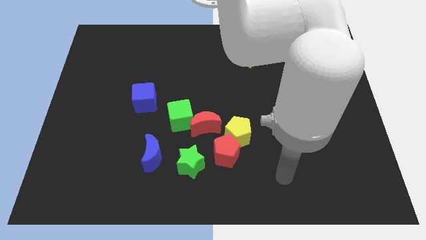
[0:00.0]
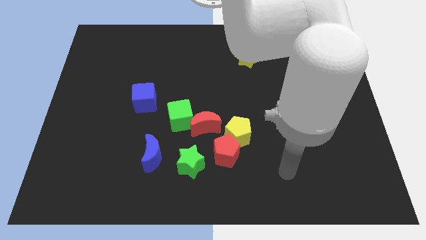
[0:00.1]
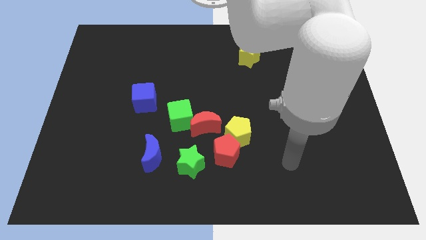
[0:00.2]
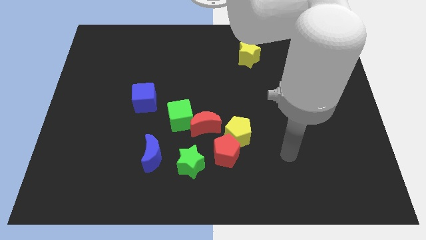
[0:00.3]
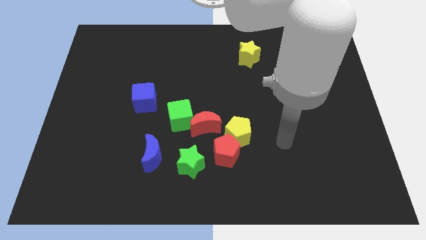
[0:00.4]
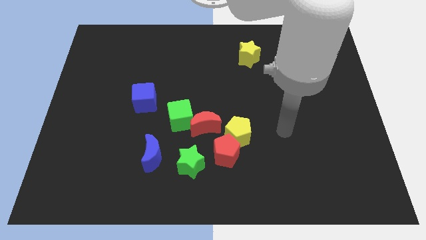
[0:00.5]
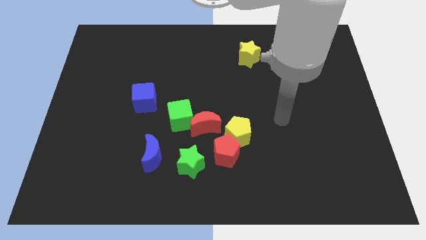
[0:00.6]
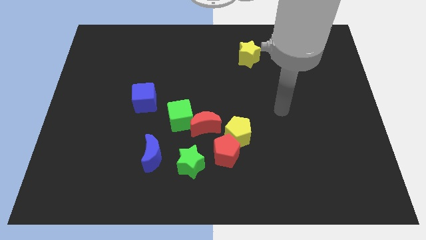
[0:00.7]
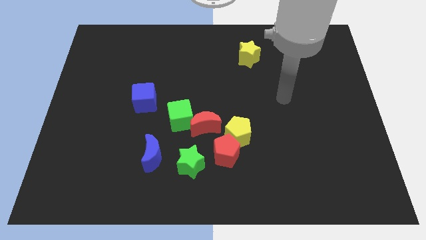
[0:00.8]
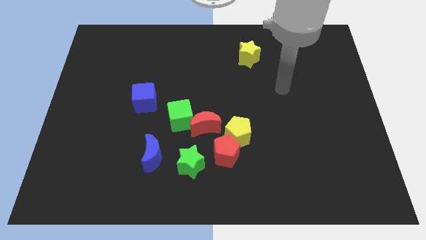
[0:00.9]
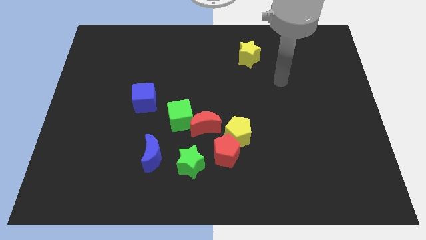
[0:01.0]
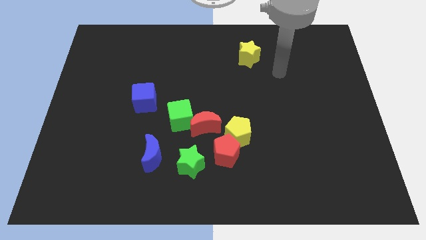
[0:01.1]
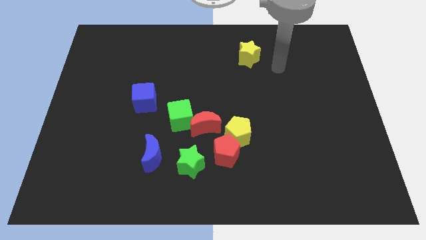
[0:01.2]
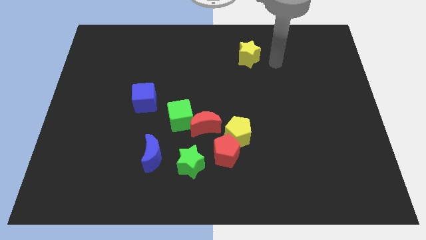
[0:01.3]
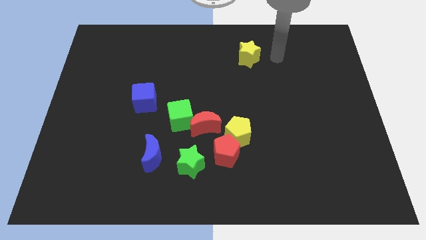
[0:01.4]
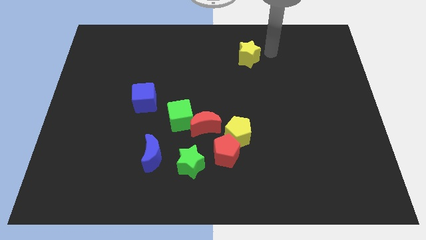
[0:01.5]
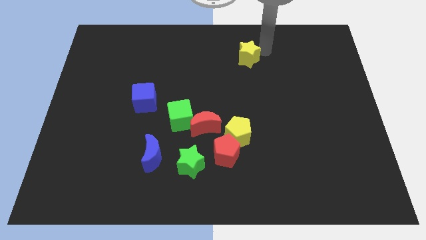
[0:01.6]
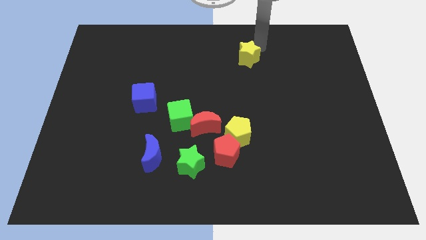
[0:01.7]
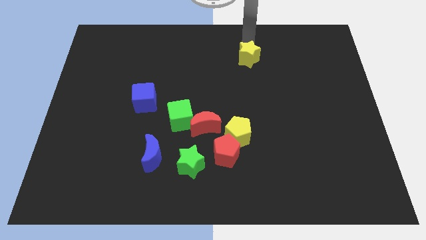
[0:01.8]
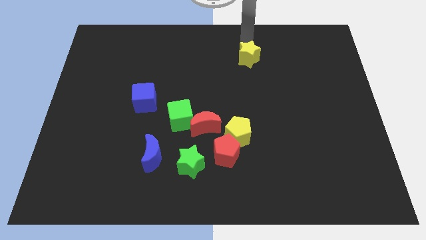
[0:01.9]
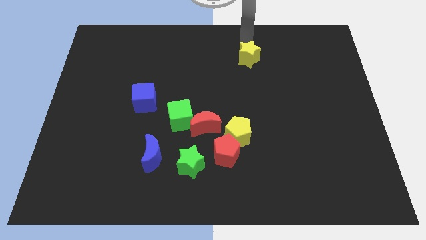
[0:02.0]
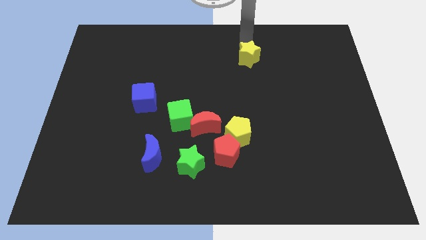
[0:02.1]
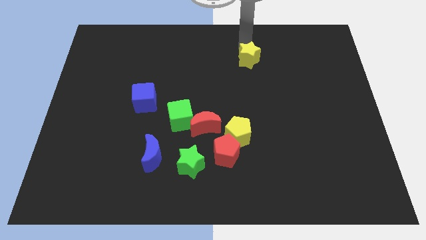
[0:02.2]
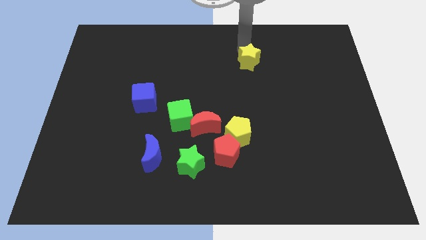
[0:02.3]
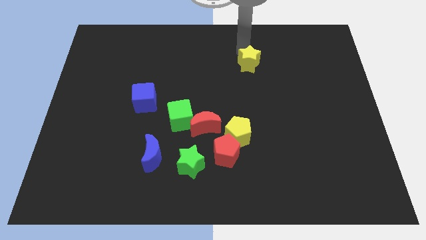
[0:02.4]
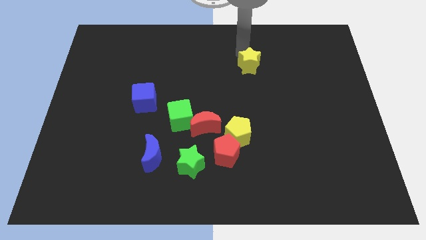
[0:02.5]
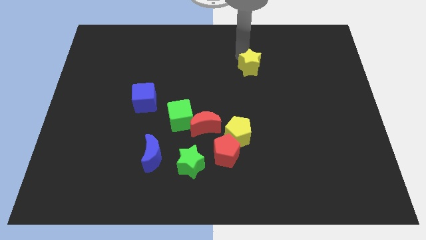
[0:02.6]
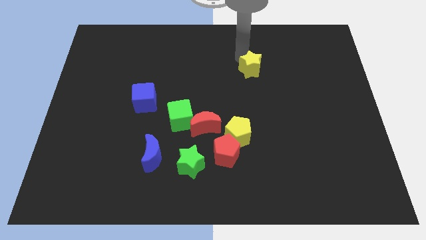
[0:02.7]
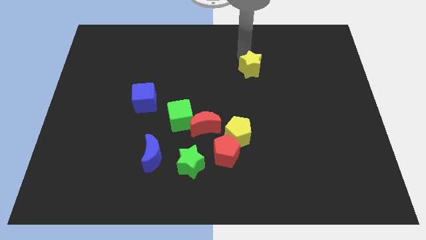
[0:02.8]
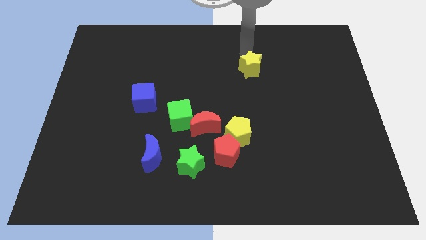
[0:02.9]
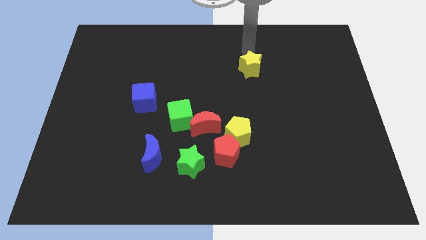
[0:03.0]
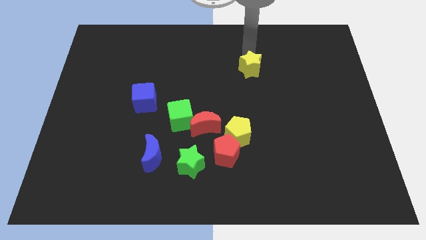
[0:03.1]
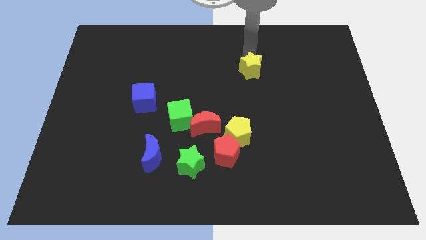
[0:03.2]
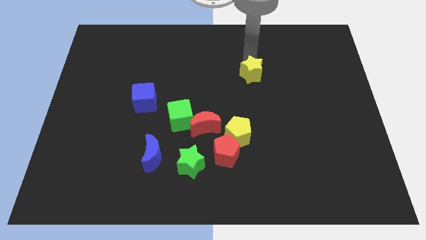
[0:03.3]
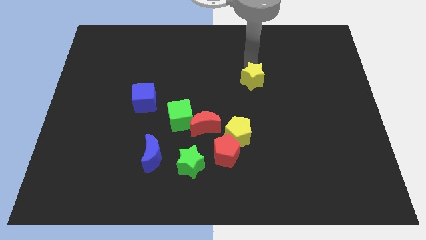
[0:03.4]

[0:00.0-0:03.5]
push the yellow star a little bit down

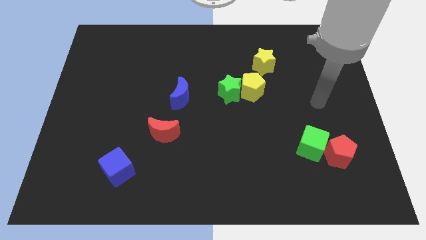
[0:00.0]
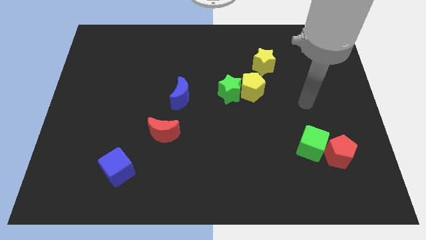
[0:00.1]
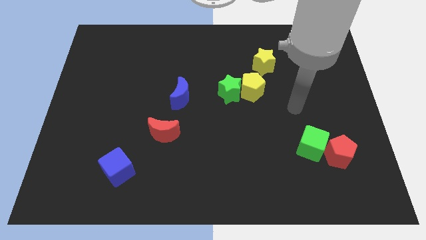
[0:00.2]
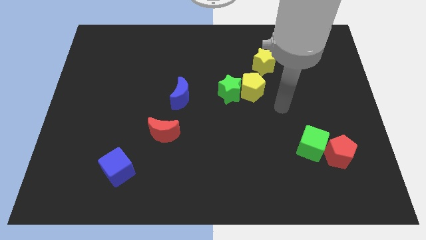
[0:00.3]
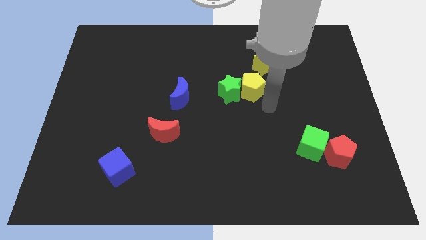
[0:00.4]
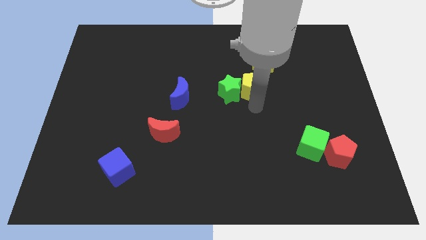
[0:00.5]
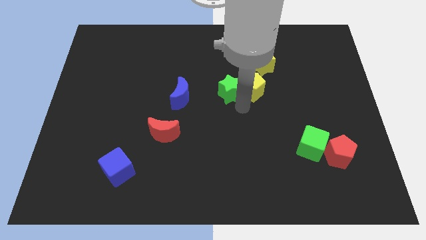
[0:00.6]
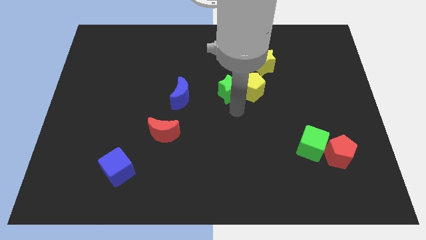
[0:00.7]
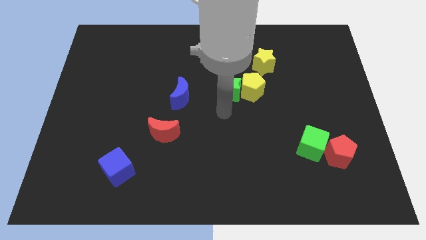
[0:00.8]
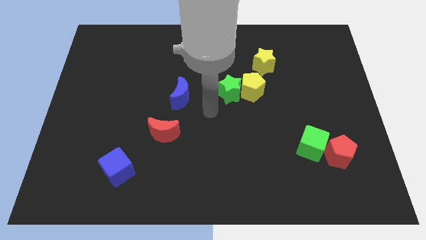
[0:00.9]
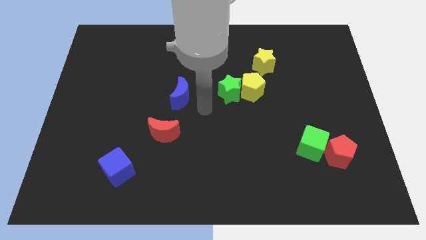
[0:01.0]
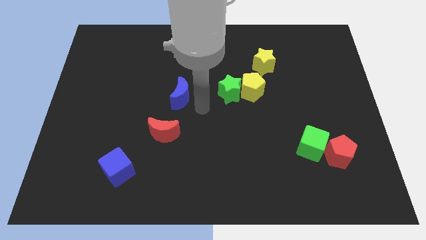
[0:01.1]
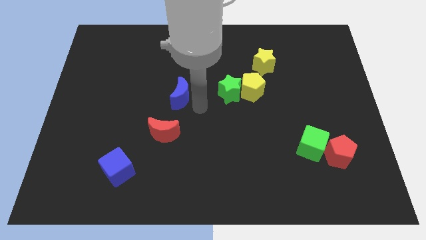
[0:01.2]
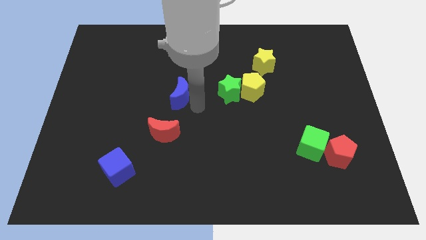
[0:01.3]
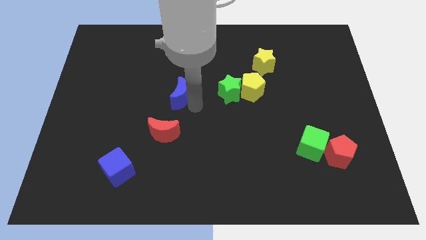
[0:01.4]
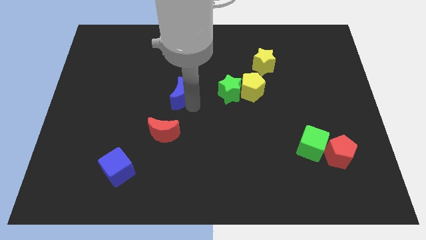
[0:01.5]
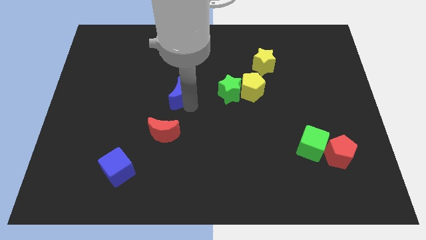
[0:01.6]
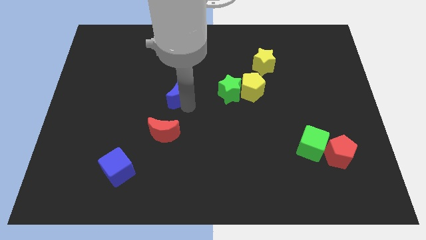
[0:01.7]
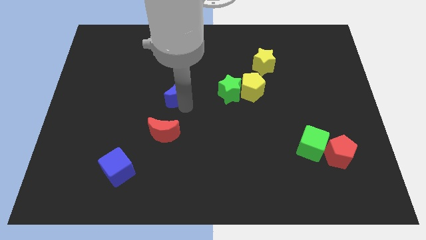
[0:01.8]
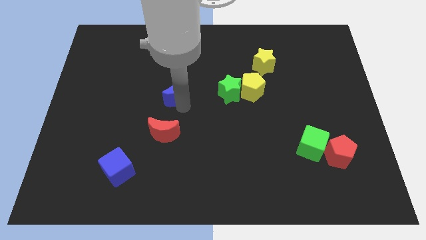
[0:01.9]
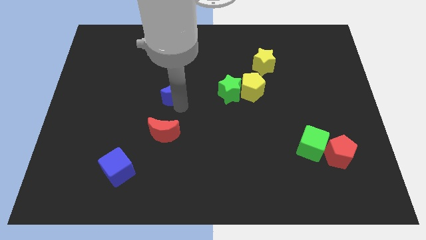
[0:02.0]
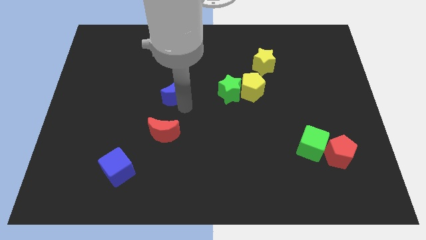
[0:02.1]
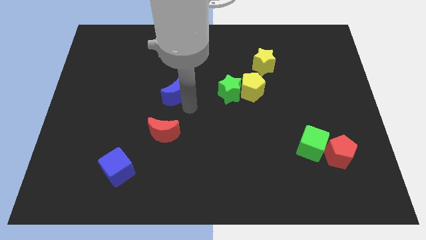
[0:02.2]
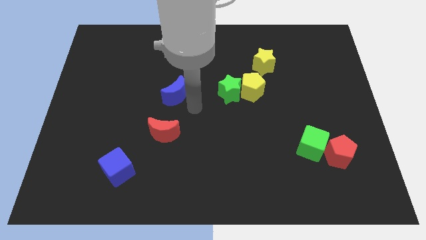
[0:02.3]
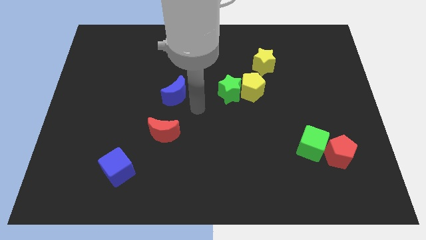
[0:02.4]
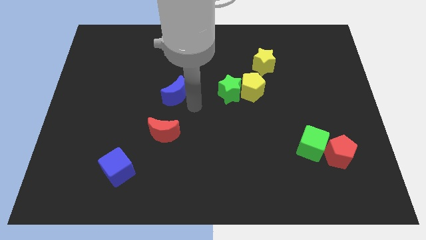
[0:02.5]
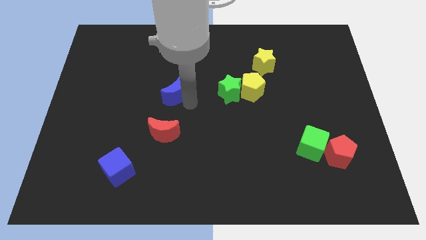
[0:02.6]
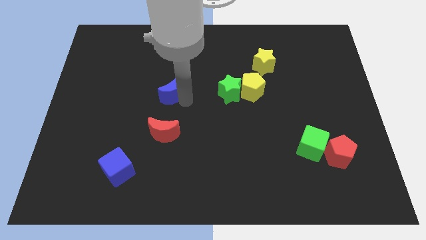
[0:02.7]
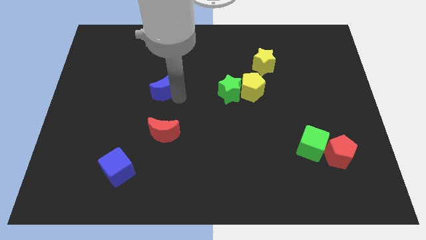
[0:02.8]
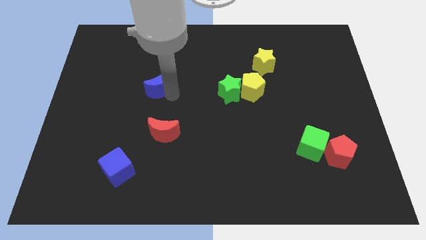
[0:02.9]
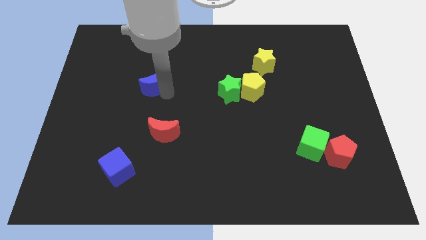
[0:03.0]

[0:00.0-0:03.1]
slightly move the blue moon diagonally upwards and left

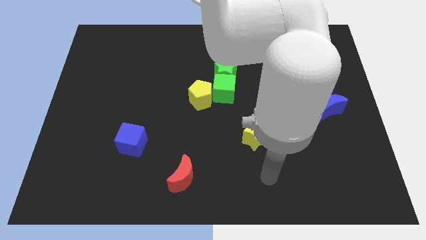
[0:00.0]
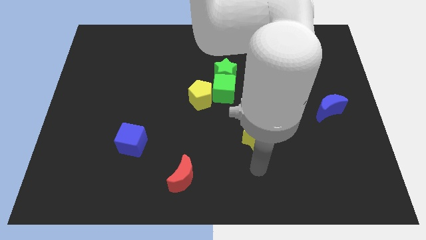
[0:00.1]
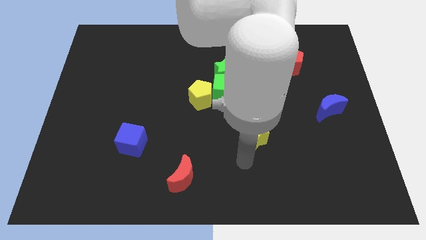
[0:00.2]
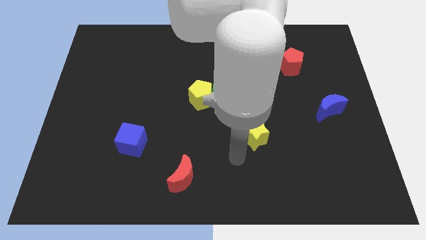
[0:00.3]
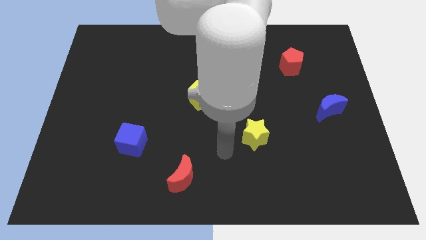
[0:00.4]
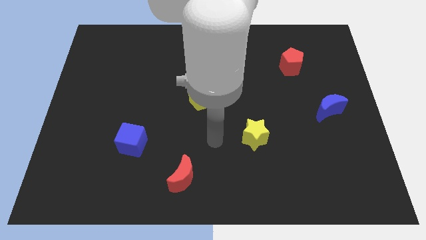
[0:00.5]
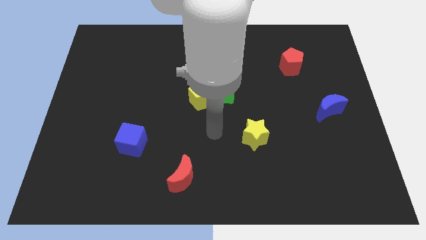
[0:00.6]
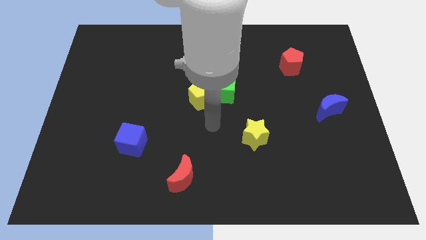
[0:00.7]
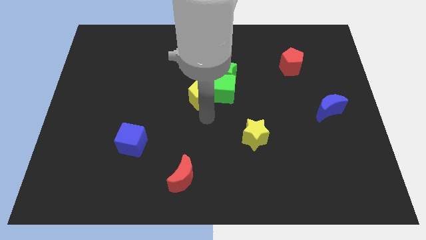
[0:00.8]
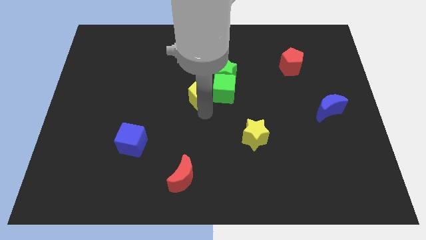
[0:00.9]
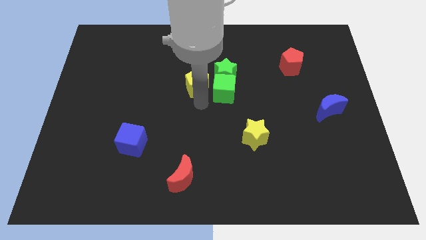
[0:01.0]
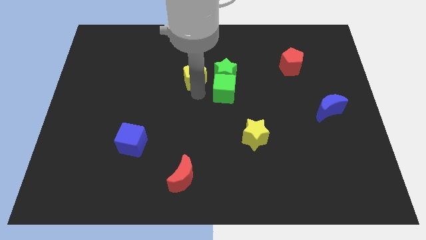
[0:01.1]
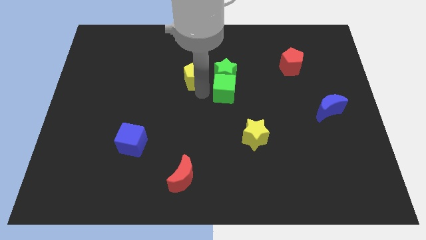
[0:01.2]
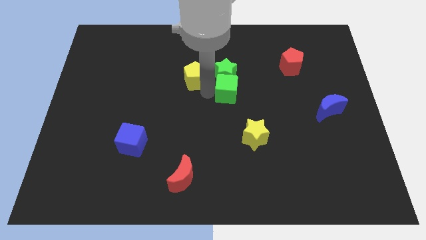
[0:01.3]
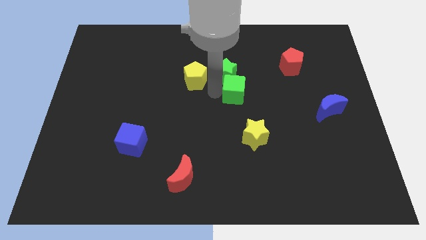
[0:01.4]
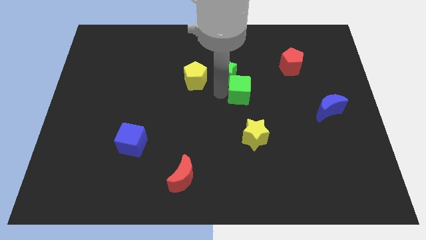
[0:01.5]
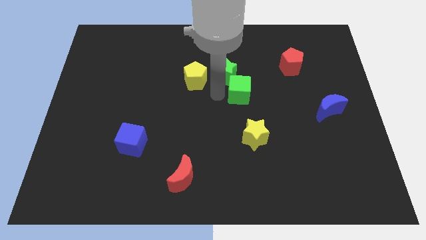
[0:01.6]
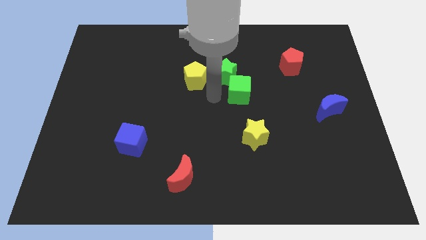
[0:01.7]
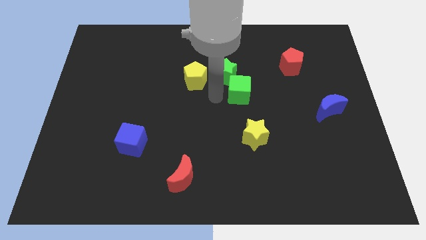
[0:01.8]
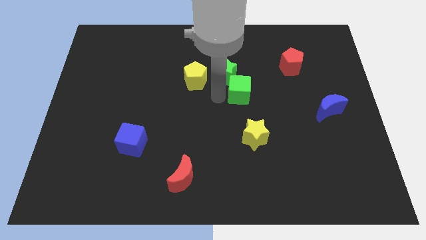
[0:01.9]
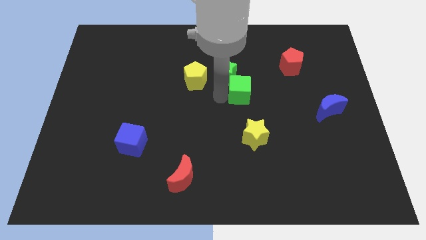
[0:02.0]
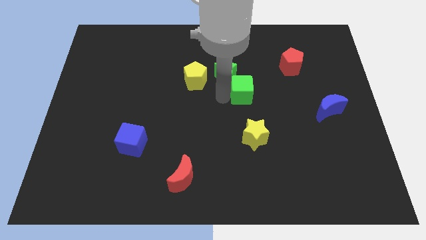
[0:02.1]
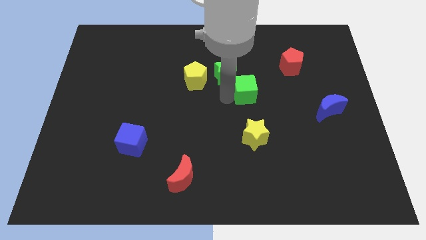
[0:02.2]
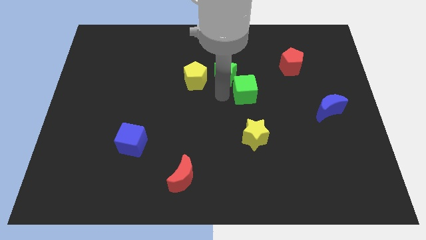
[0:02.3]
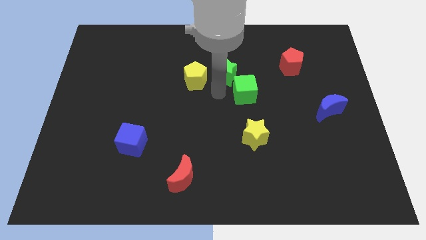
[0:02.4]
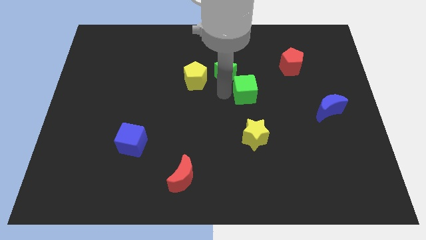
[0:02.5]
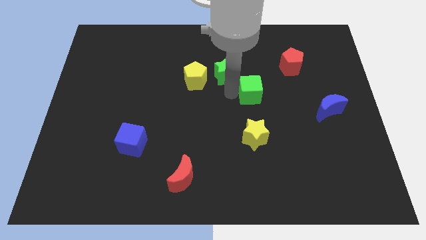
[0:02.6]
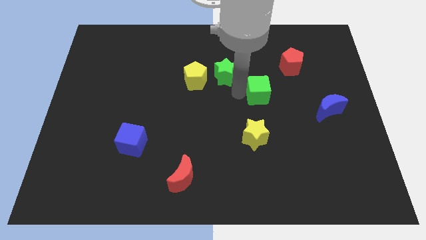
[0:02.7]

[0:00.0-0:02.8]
push the green cube to the right somewhat
